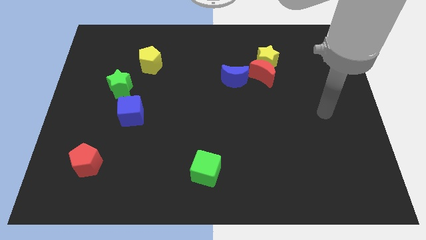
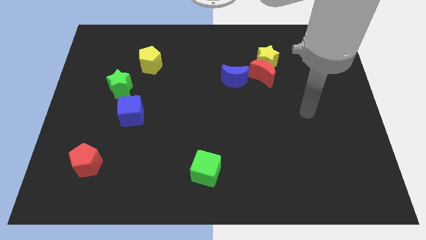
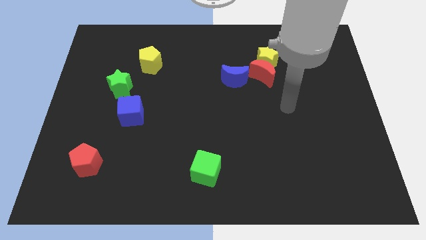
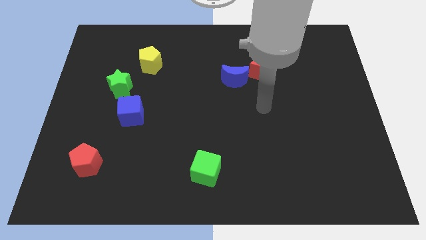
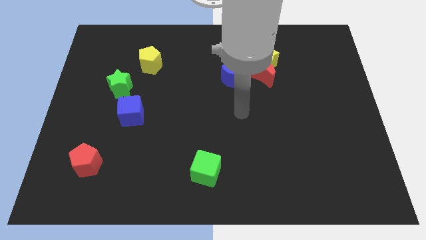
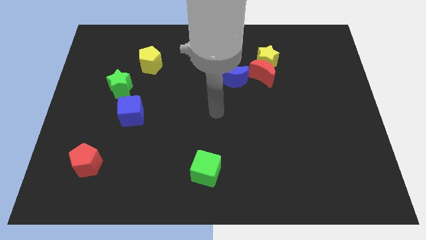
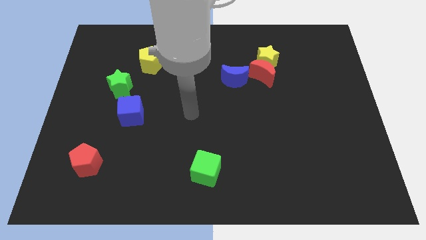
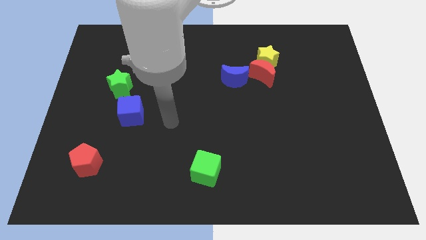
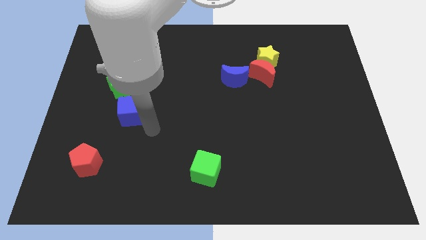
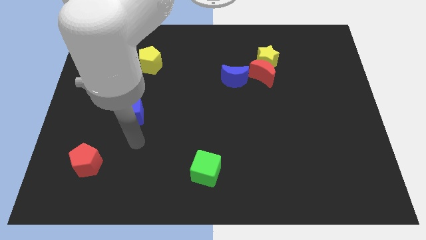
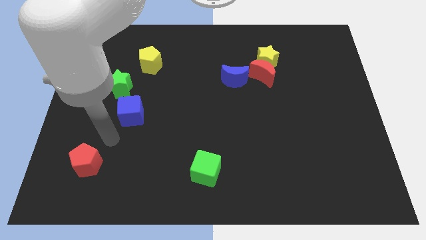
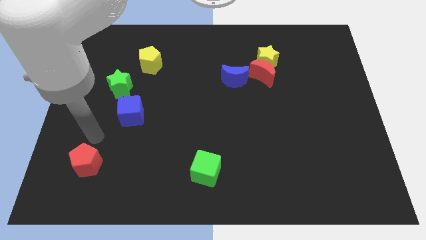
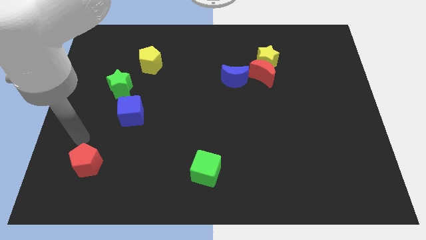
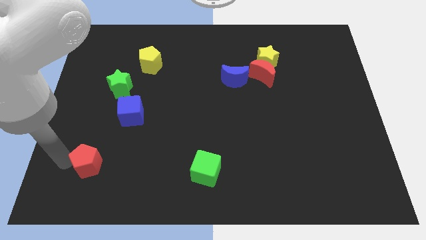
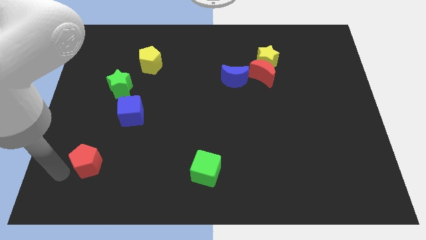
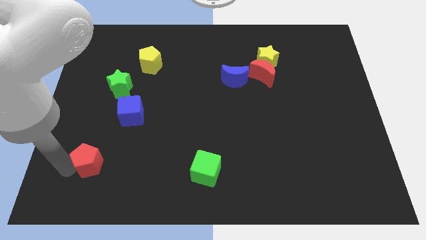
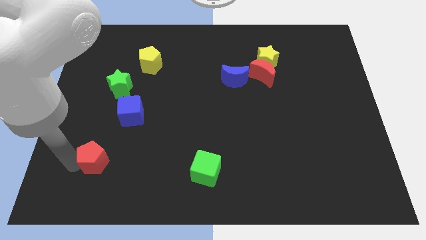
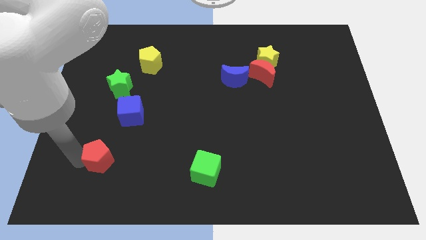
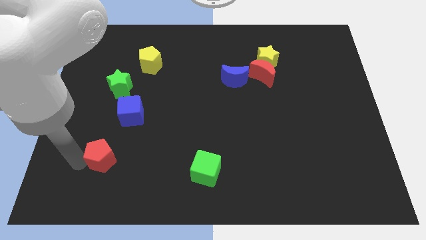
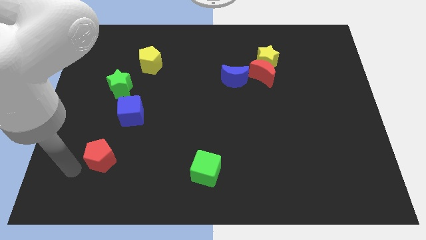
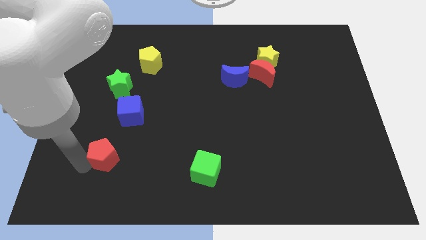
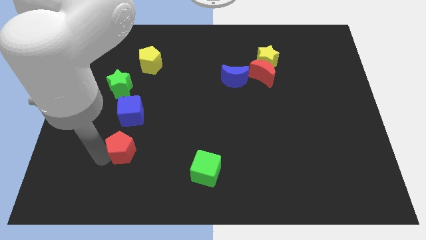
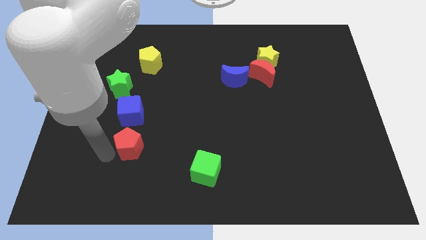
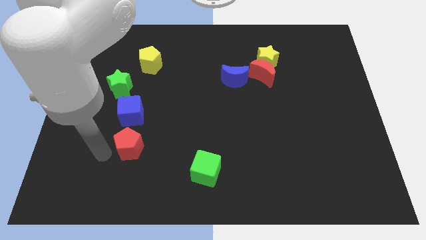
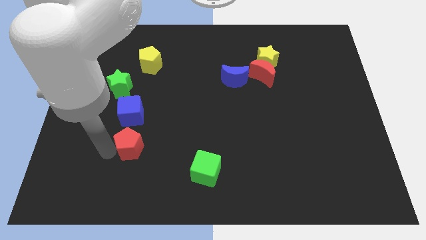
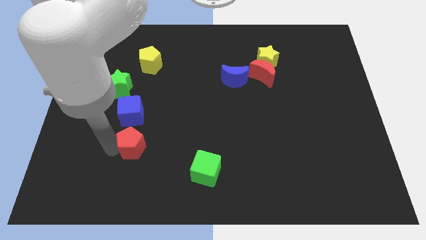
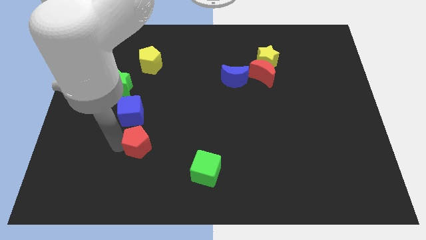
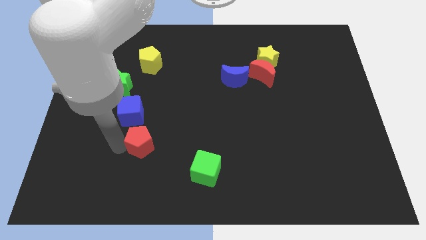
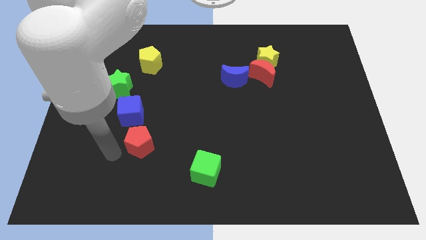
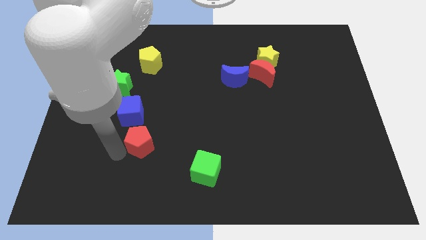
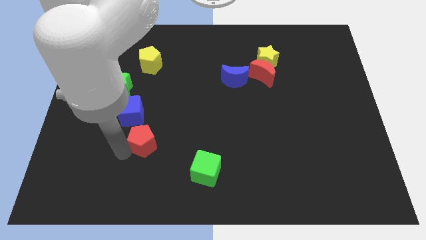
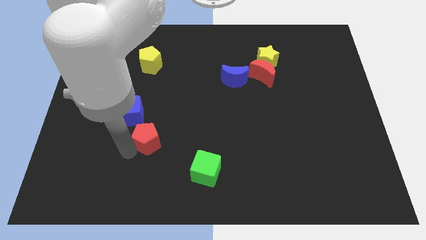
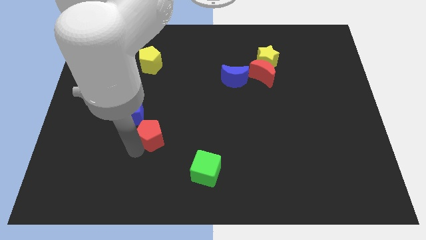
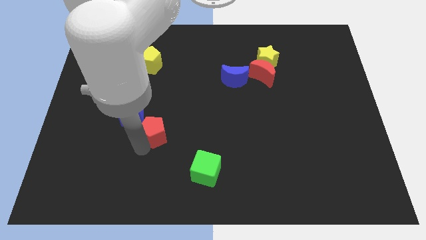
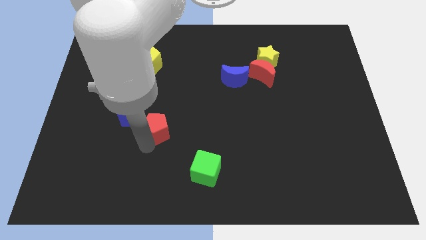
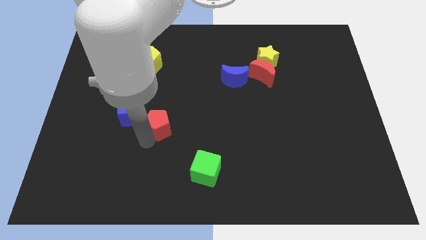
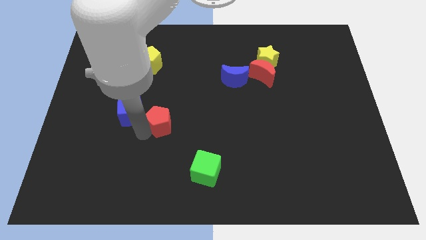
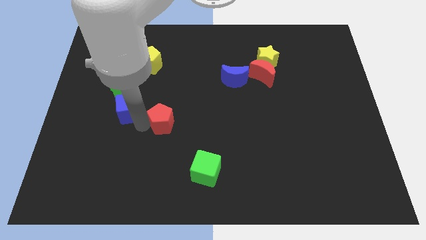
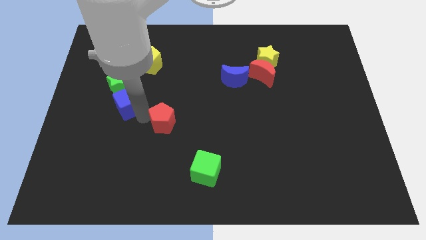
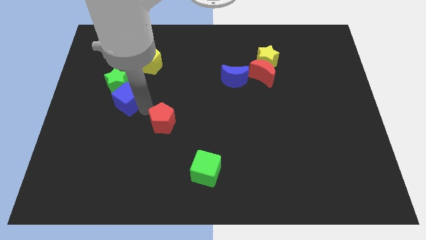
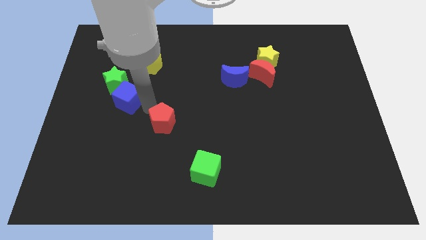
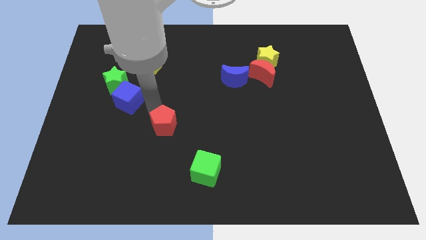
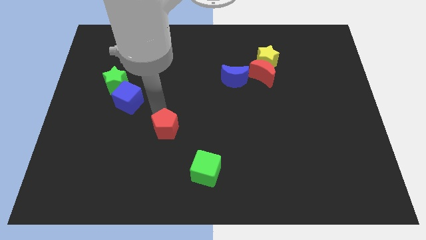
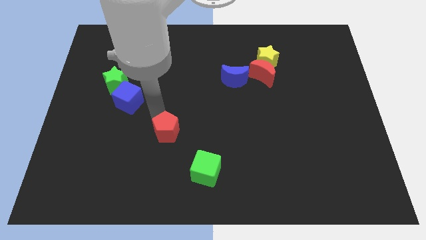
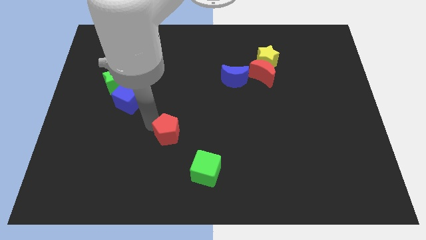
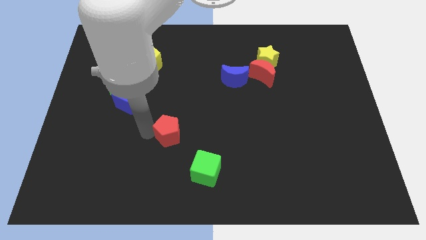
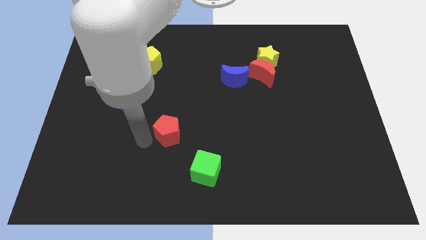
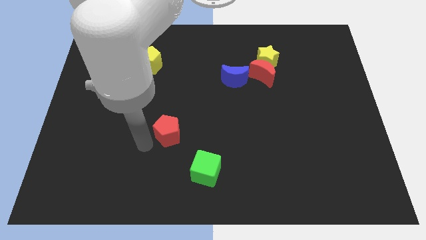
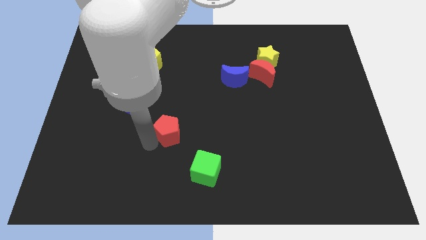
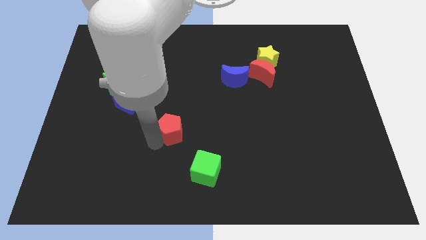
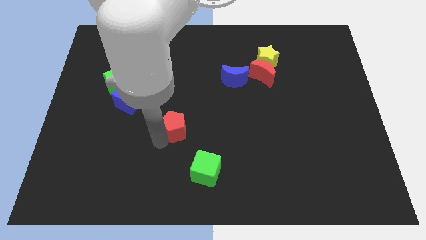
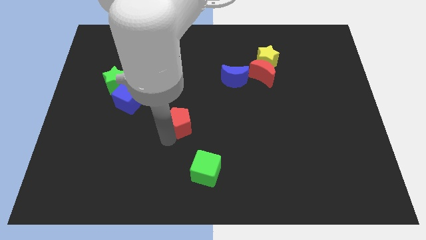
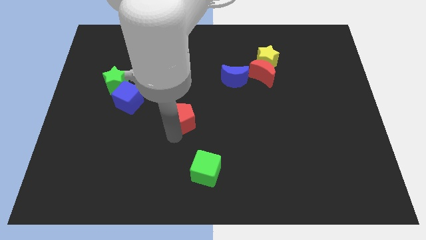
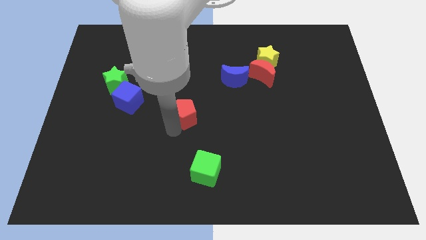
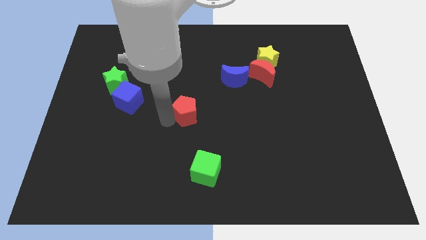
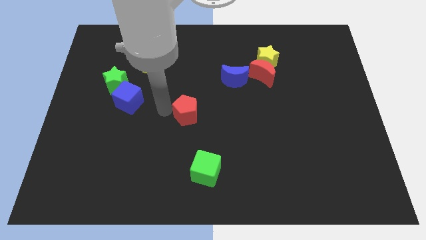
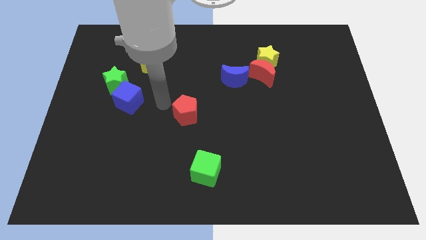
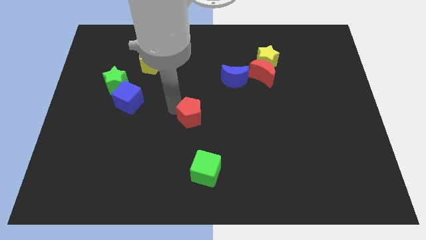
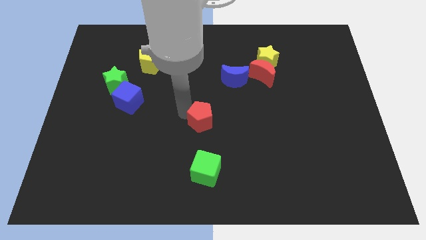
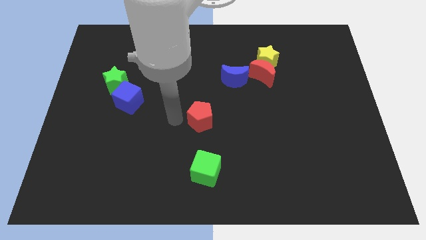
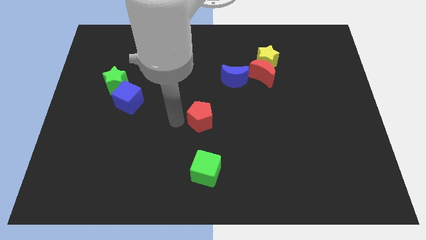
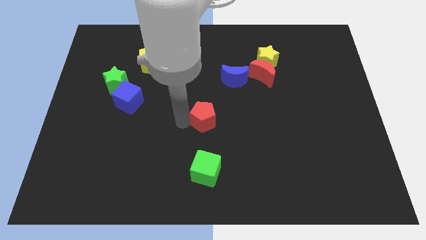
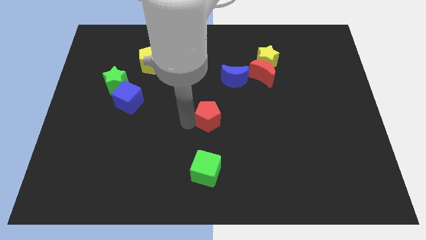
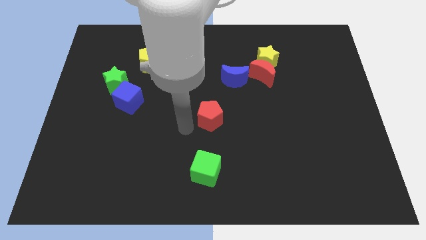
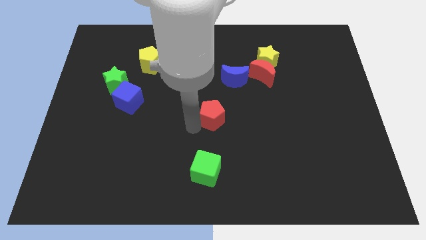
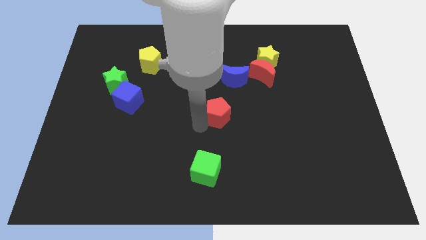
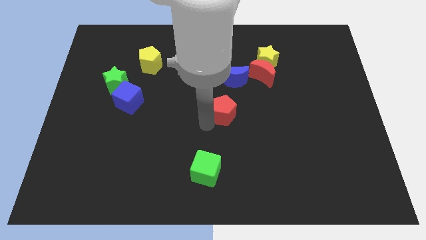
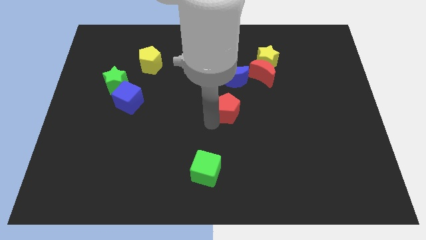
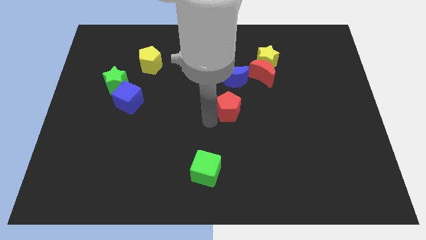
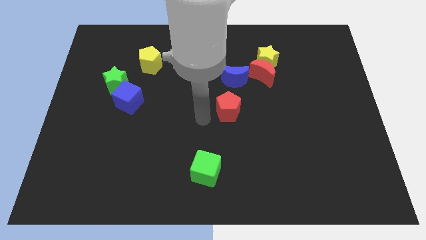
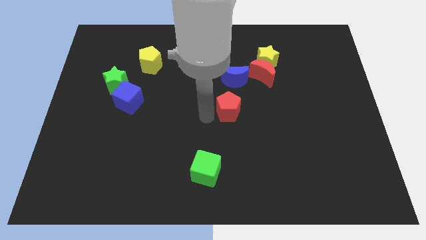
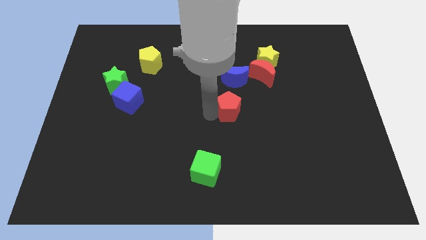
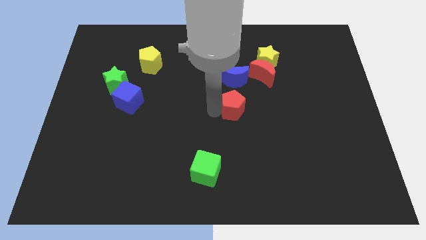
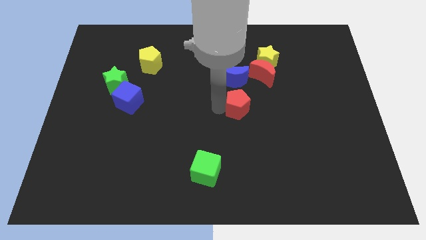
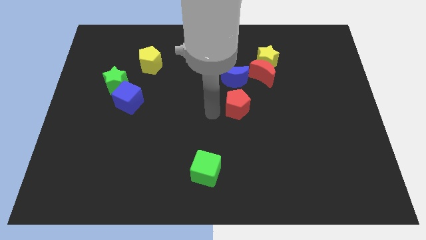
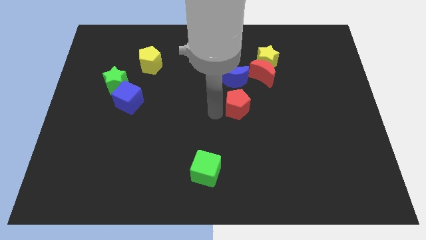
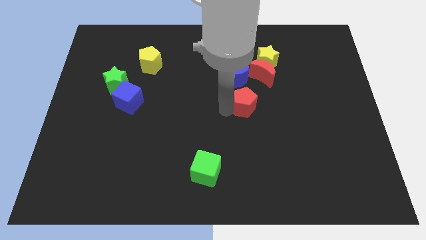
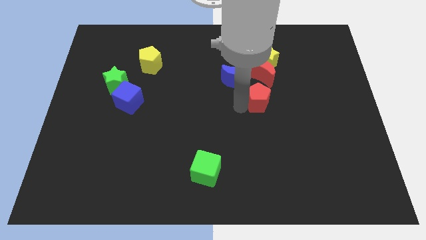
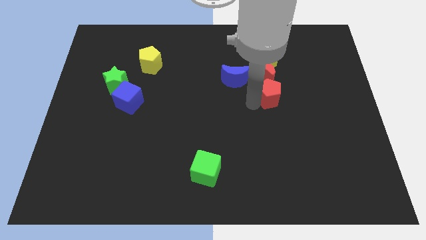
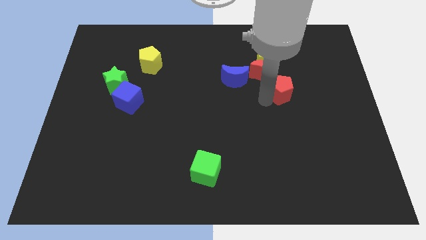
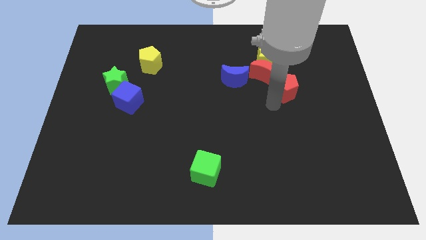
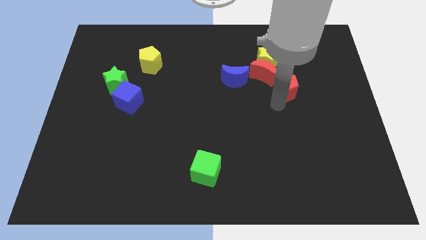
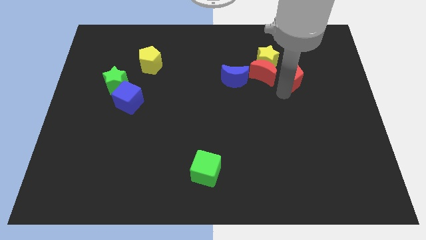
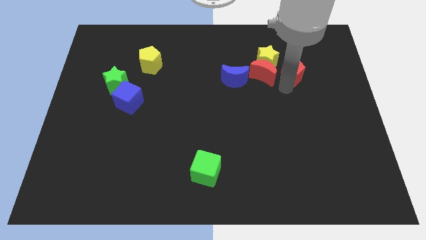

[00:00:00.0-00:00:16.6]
push the red pentagon right of the yellow star
